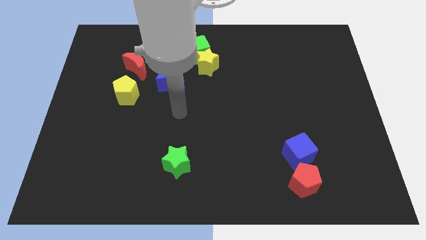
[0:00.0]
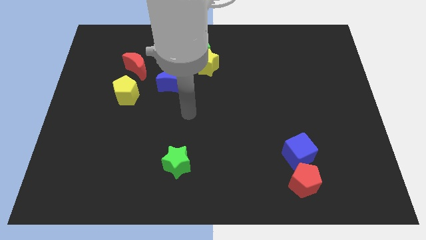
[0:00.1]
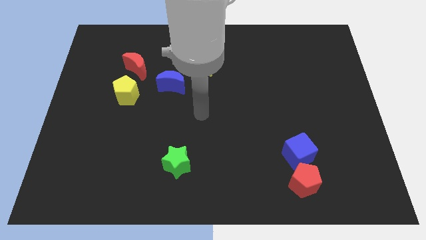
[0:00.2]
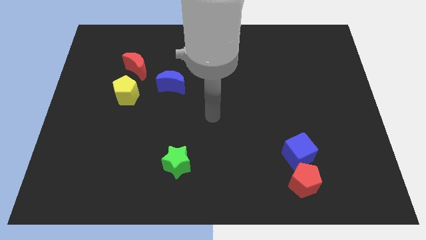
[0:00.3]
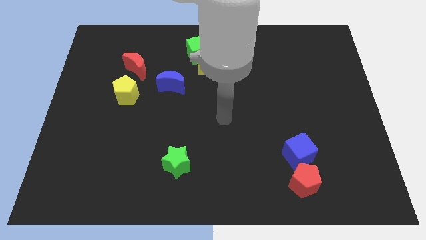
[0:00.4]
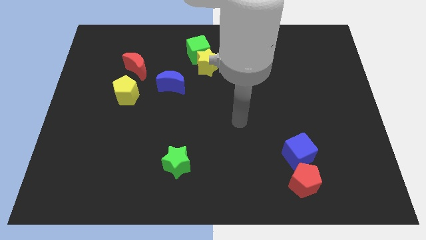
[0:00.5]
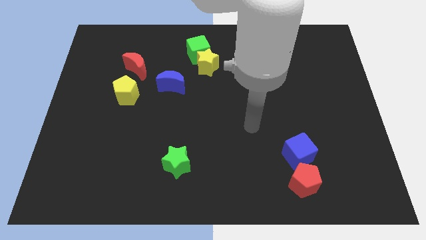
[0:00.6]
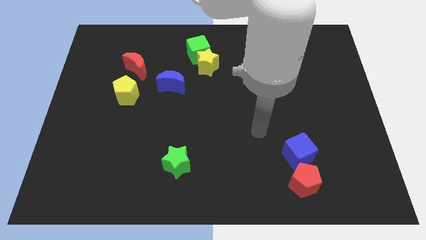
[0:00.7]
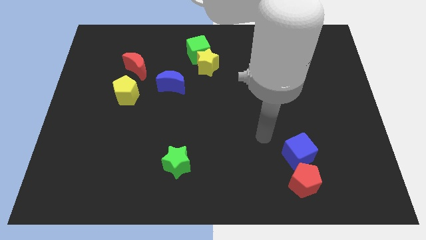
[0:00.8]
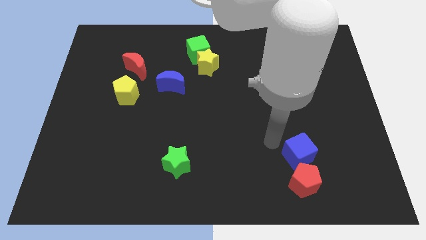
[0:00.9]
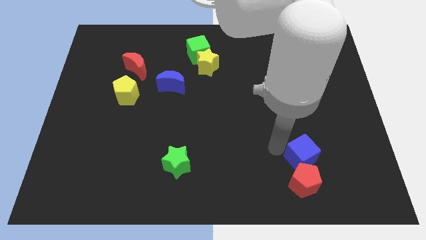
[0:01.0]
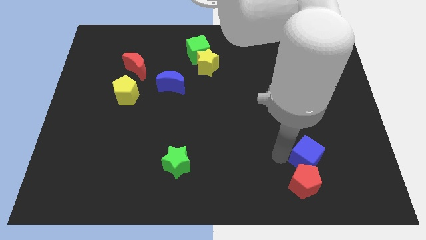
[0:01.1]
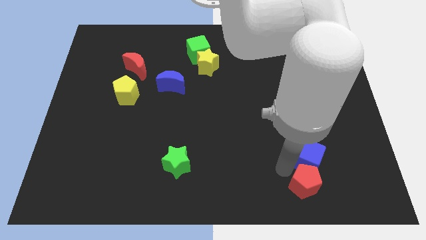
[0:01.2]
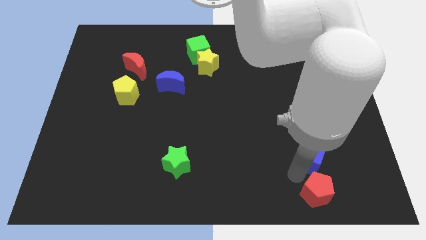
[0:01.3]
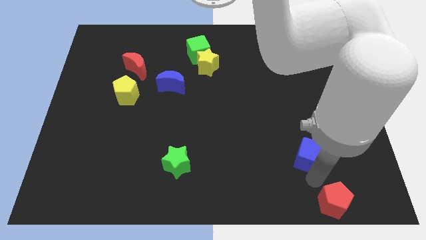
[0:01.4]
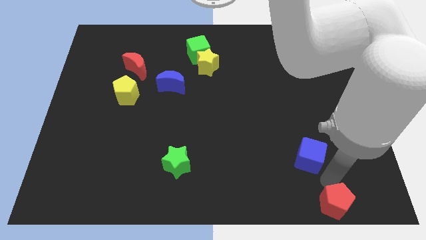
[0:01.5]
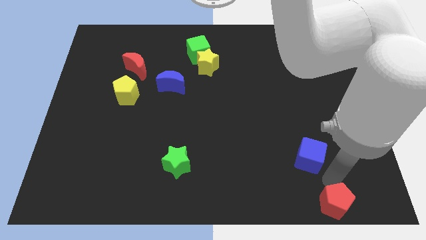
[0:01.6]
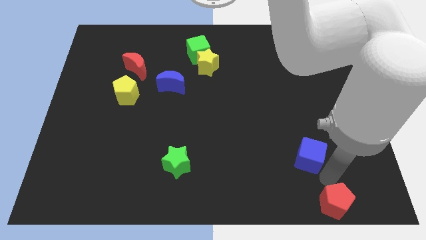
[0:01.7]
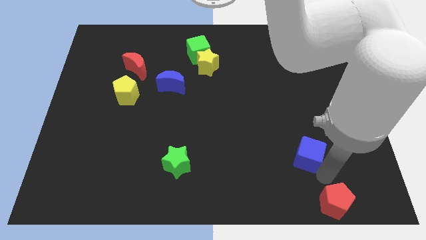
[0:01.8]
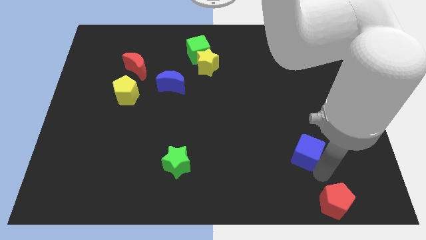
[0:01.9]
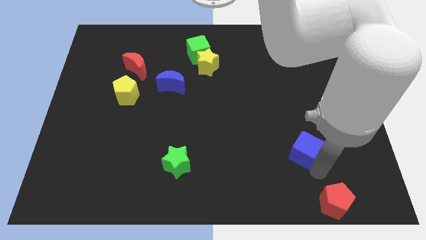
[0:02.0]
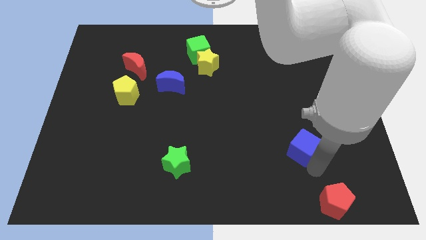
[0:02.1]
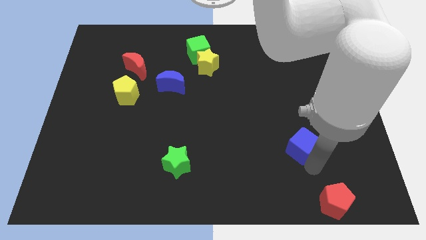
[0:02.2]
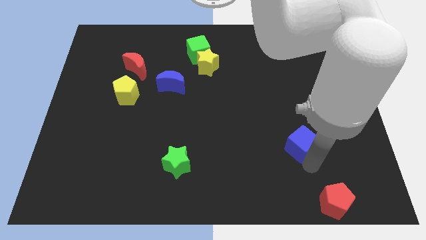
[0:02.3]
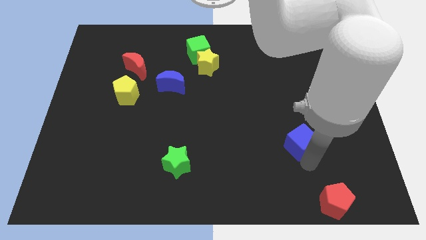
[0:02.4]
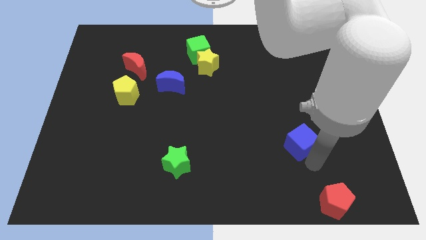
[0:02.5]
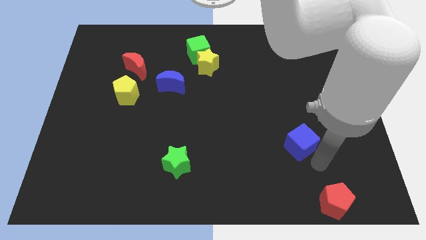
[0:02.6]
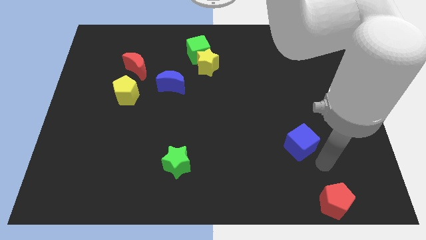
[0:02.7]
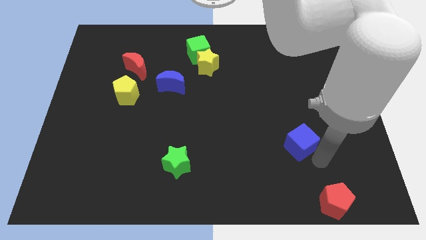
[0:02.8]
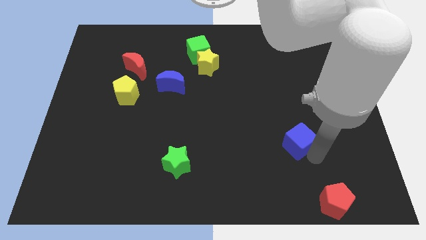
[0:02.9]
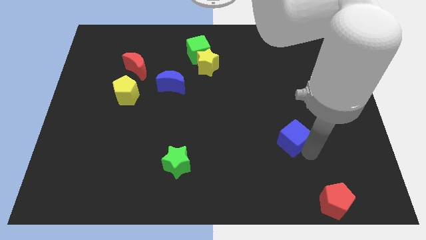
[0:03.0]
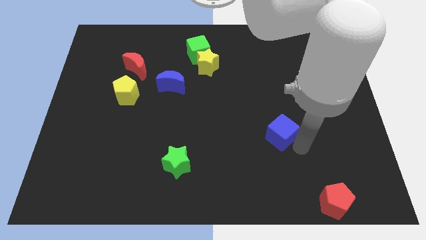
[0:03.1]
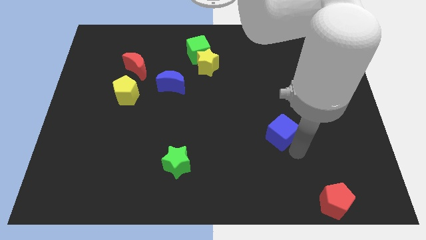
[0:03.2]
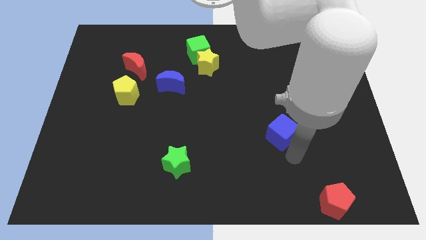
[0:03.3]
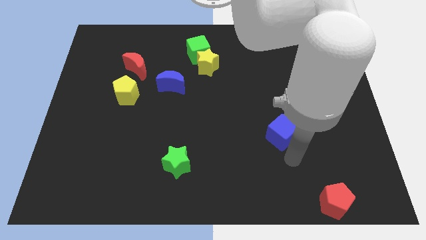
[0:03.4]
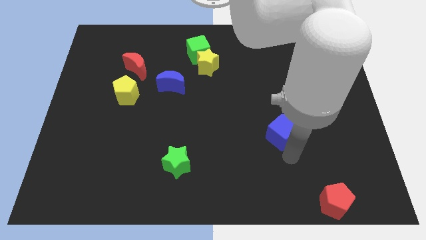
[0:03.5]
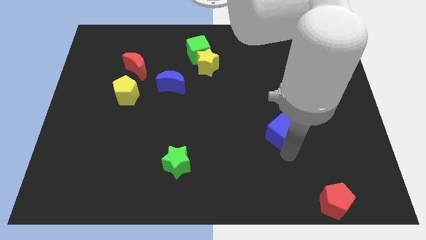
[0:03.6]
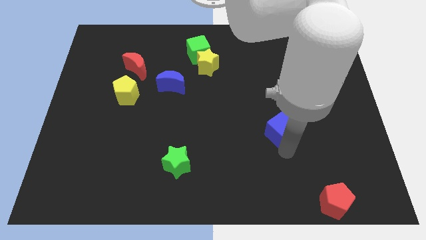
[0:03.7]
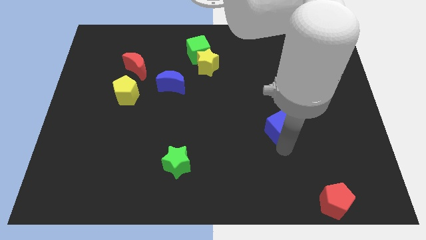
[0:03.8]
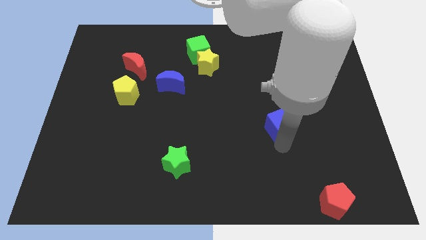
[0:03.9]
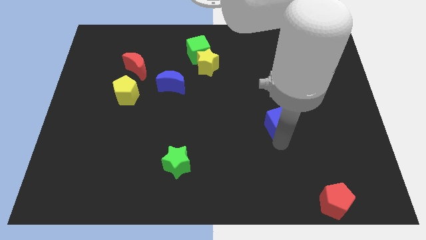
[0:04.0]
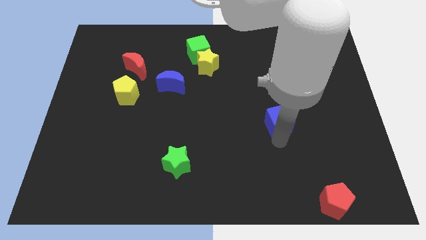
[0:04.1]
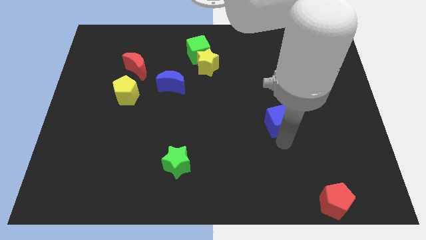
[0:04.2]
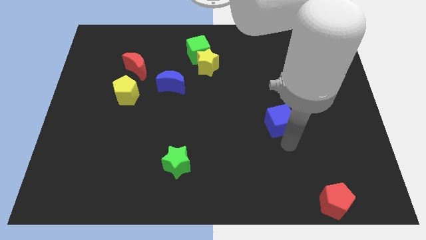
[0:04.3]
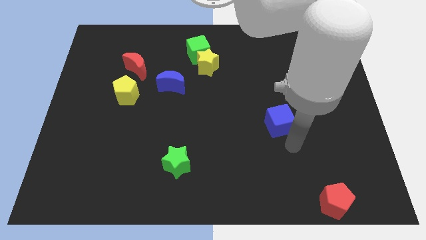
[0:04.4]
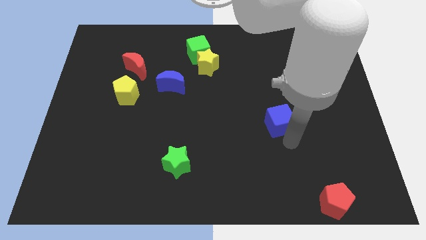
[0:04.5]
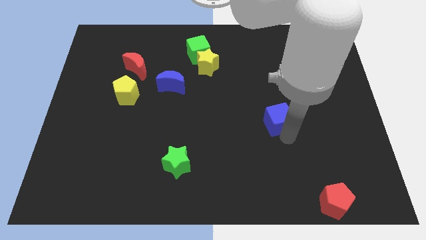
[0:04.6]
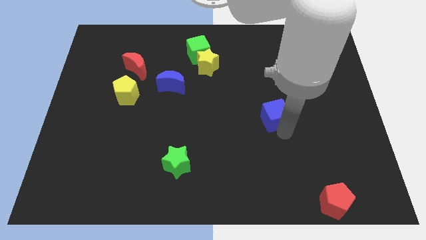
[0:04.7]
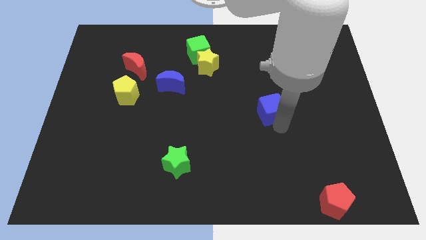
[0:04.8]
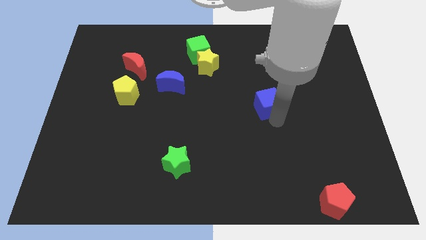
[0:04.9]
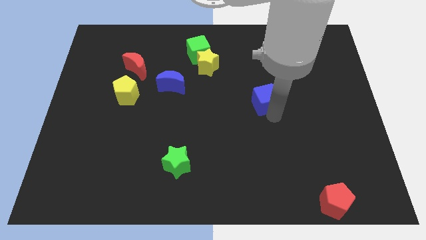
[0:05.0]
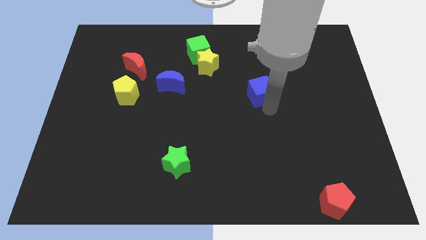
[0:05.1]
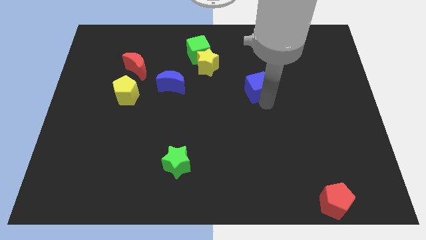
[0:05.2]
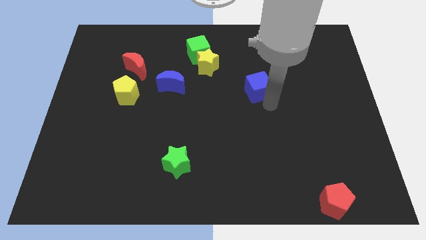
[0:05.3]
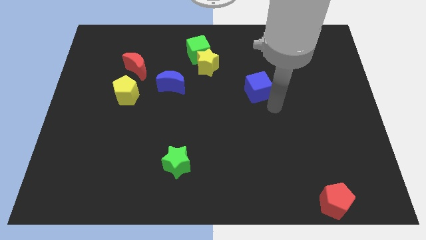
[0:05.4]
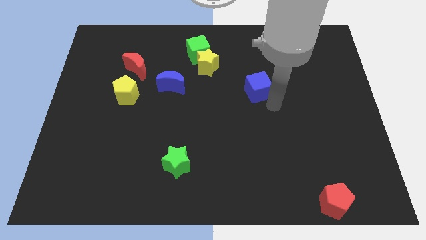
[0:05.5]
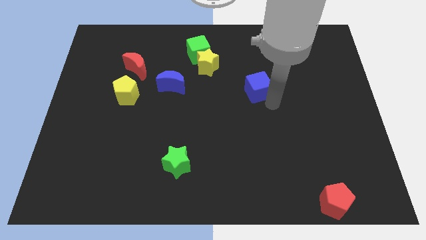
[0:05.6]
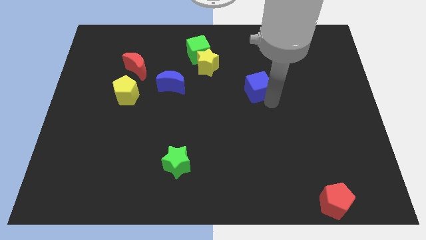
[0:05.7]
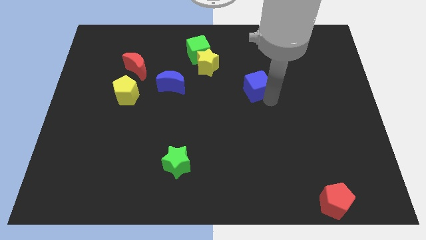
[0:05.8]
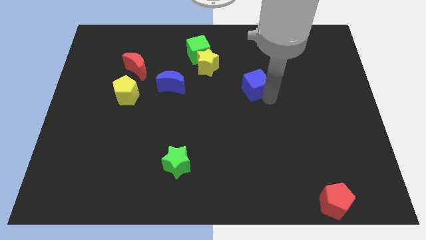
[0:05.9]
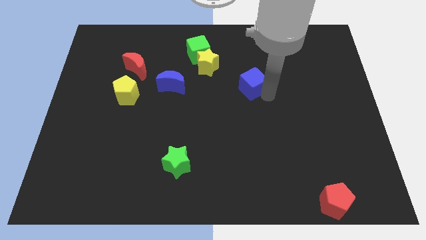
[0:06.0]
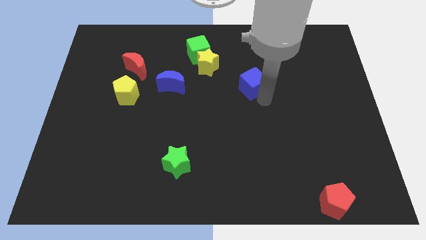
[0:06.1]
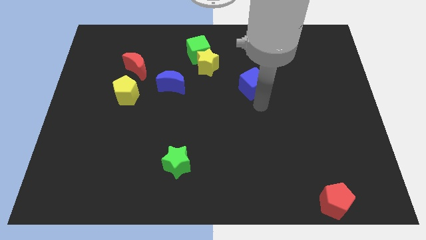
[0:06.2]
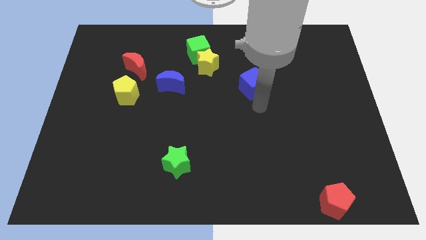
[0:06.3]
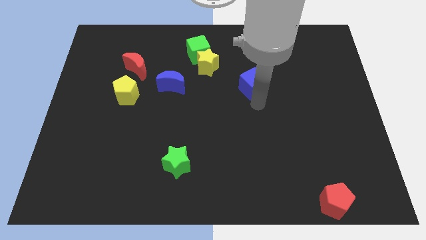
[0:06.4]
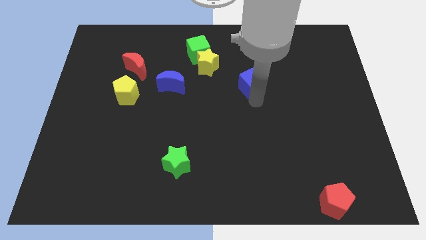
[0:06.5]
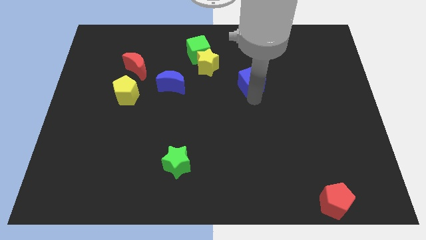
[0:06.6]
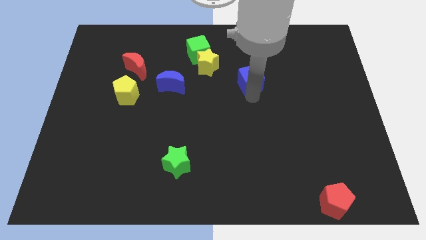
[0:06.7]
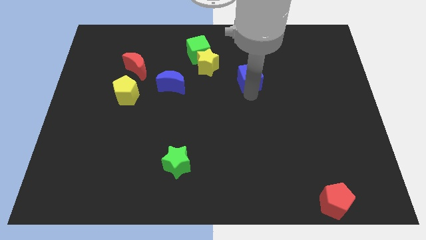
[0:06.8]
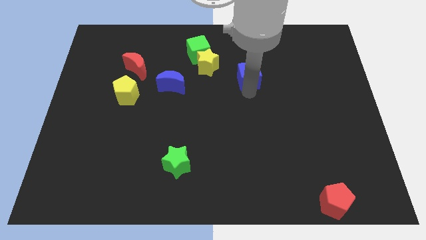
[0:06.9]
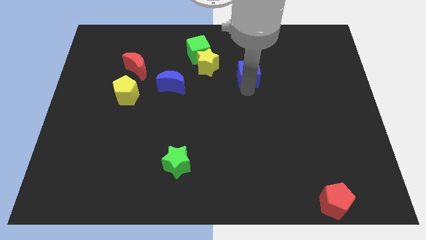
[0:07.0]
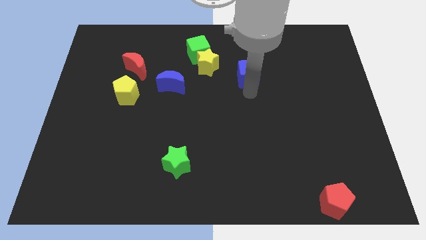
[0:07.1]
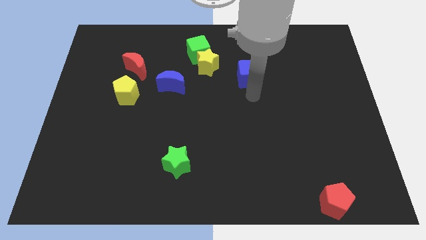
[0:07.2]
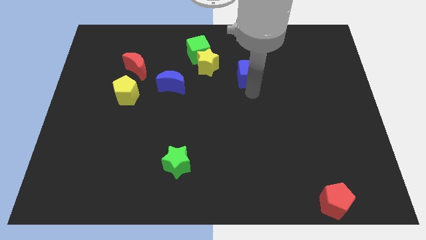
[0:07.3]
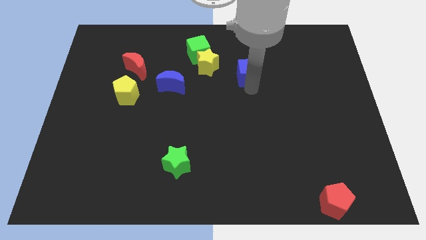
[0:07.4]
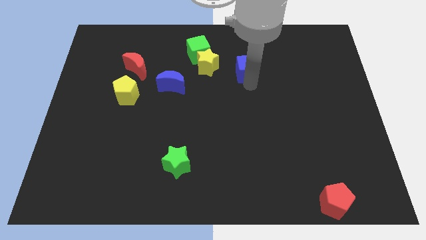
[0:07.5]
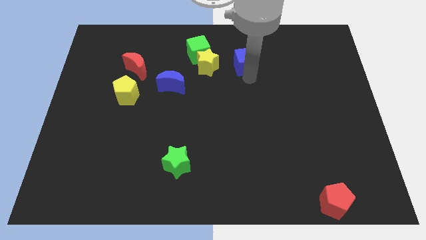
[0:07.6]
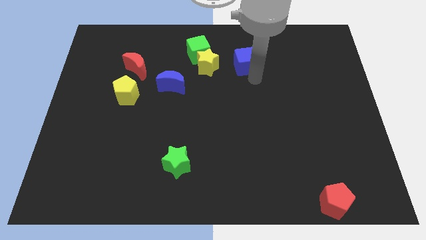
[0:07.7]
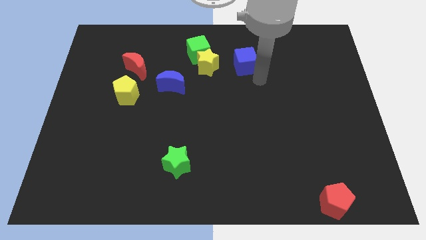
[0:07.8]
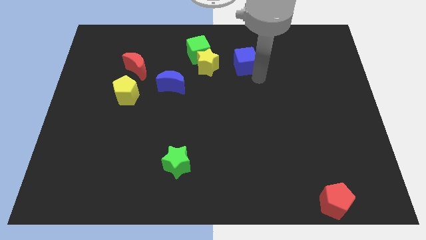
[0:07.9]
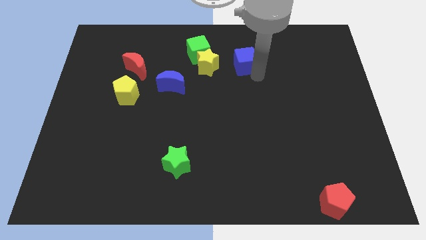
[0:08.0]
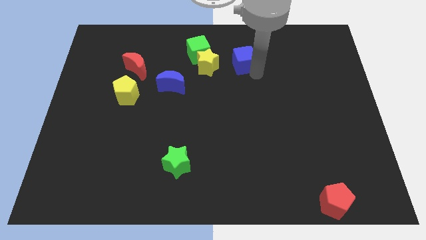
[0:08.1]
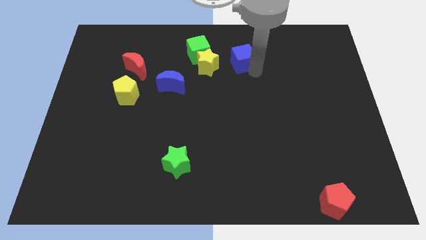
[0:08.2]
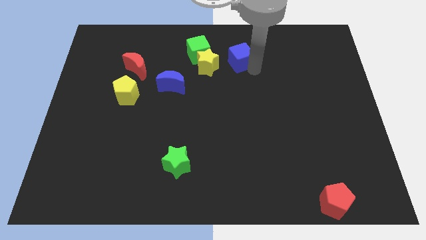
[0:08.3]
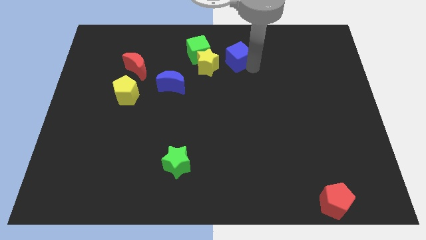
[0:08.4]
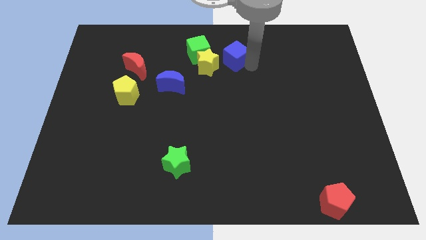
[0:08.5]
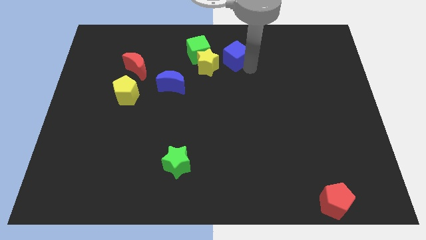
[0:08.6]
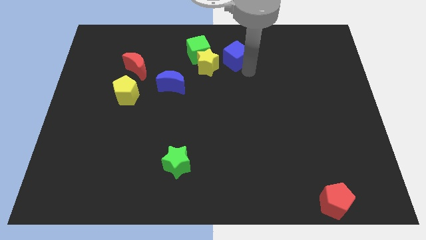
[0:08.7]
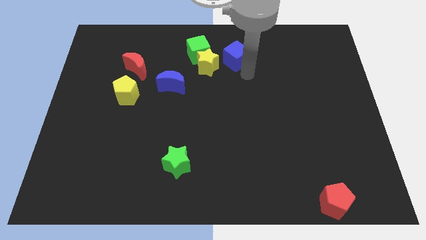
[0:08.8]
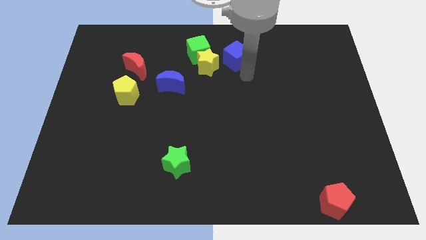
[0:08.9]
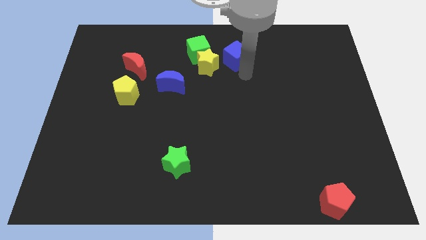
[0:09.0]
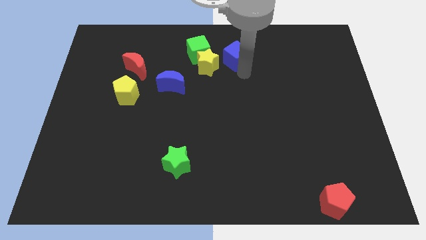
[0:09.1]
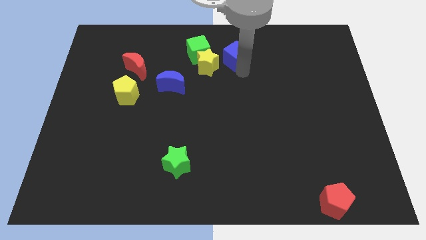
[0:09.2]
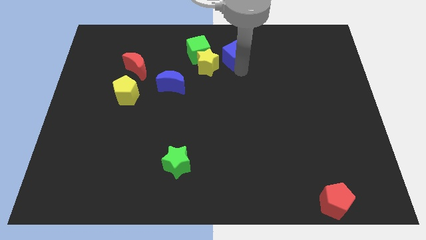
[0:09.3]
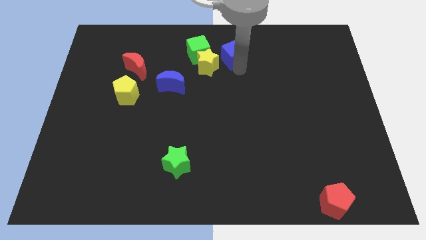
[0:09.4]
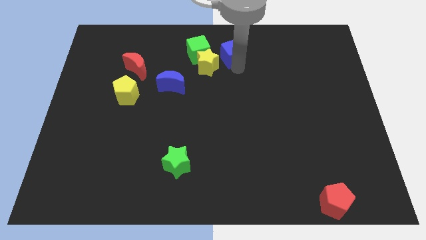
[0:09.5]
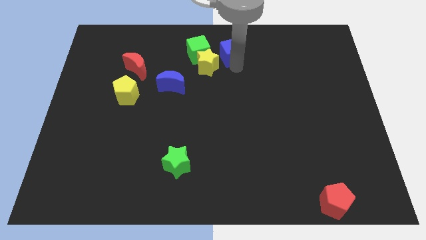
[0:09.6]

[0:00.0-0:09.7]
push the blue cube to the top
